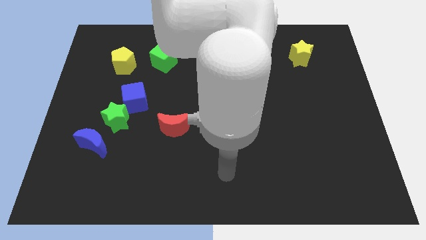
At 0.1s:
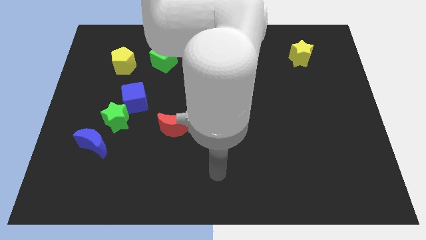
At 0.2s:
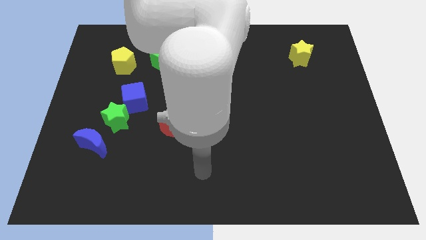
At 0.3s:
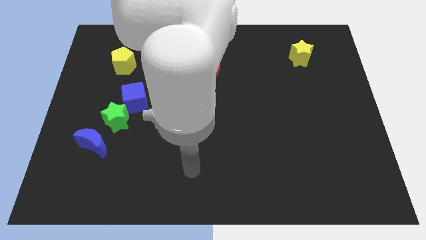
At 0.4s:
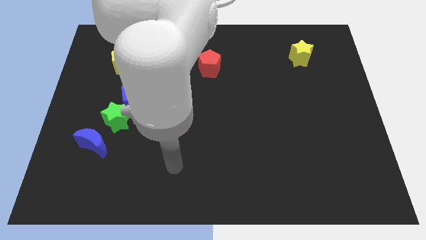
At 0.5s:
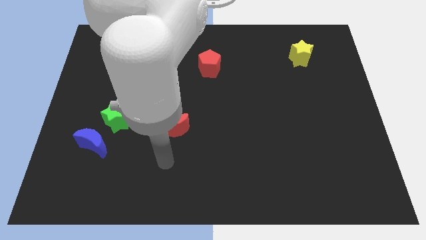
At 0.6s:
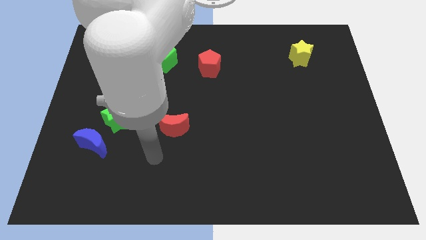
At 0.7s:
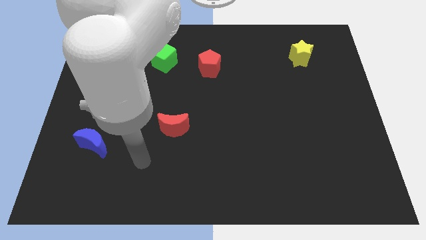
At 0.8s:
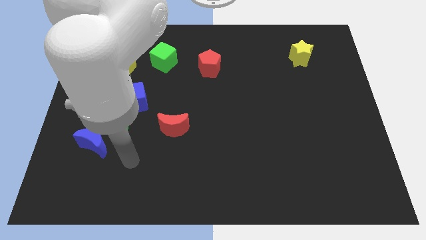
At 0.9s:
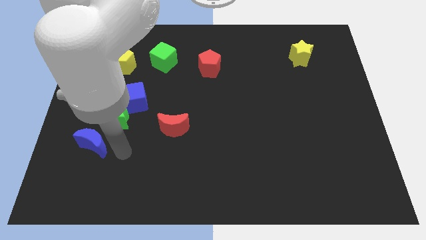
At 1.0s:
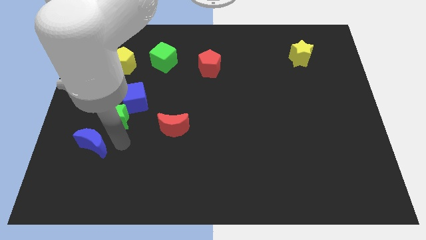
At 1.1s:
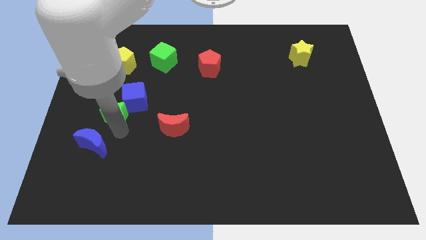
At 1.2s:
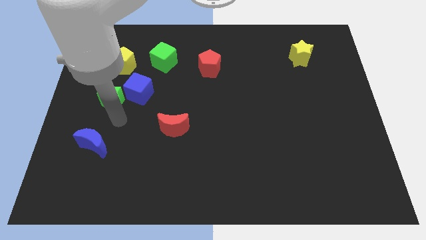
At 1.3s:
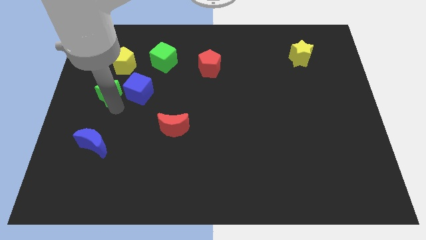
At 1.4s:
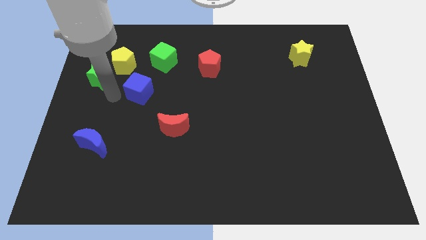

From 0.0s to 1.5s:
pull the blue cube apart from the green star

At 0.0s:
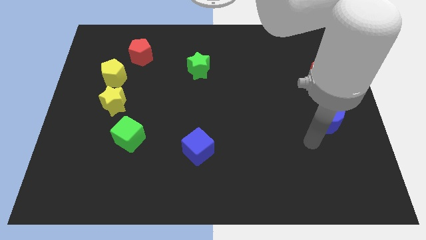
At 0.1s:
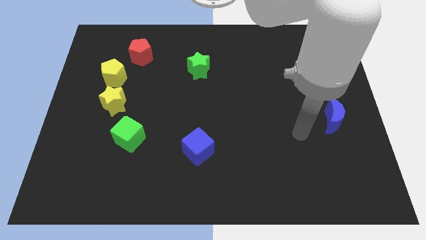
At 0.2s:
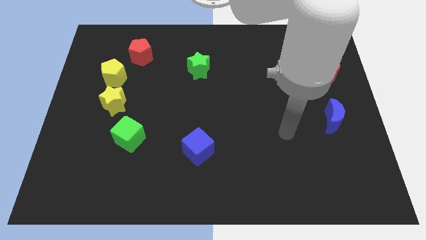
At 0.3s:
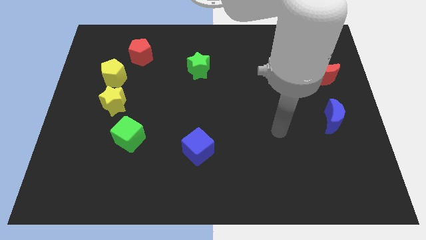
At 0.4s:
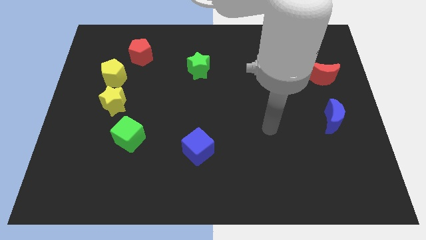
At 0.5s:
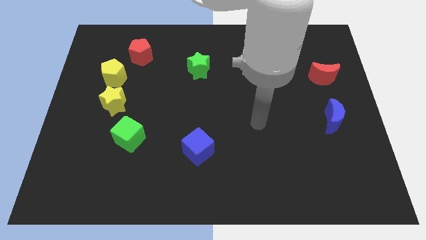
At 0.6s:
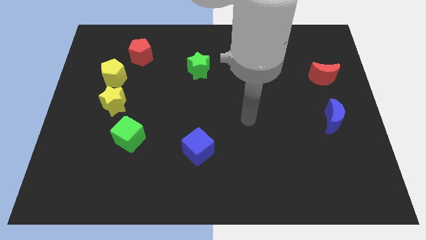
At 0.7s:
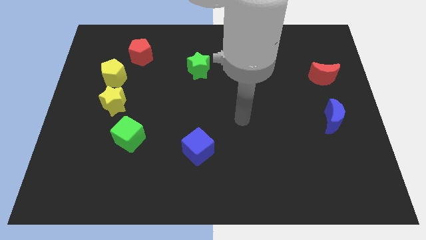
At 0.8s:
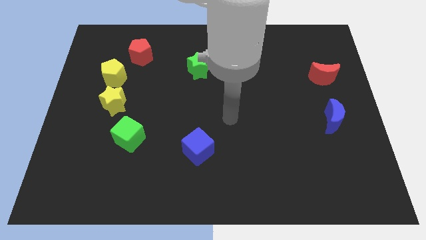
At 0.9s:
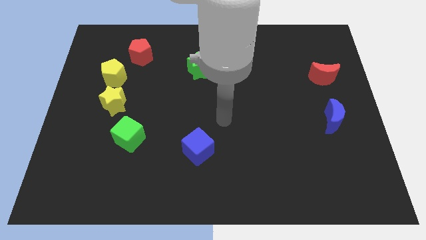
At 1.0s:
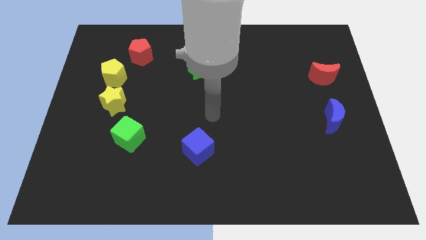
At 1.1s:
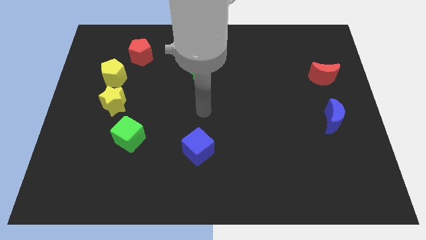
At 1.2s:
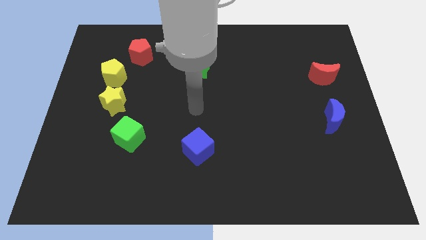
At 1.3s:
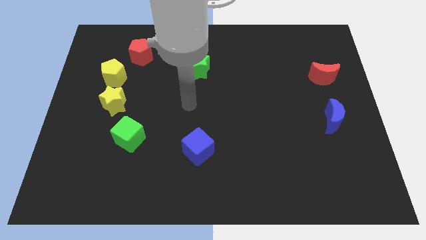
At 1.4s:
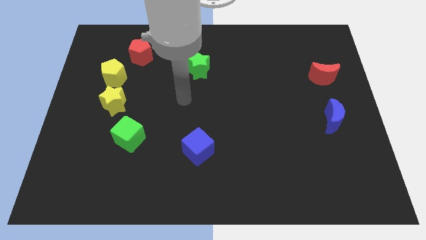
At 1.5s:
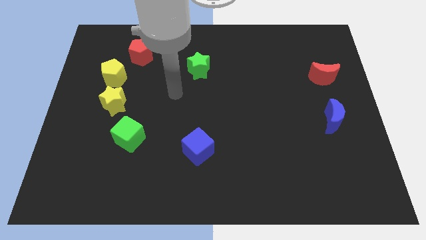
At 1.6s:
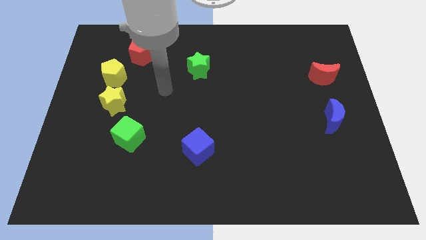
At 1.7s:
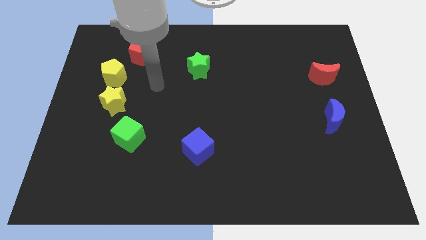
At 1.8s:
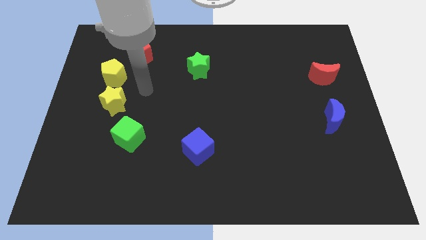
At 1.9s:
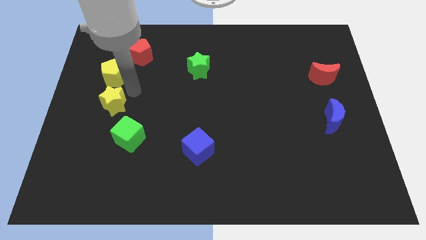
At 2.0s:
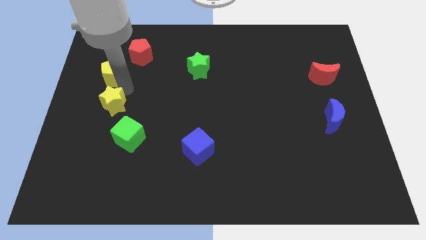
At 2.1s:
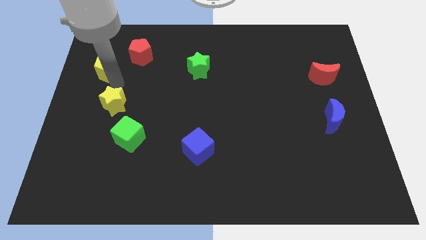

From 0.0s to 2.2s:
separate the yellow star from the yellow pentagon

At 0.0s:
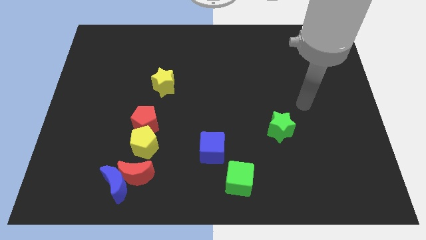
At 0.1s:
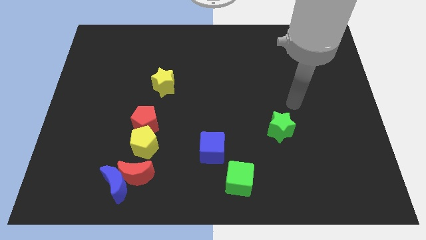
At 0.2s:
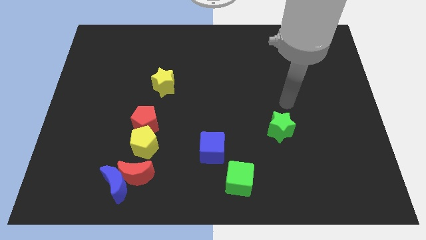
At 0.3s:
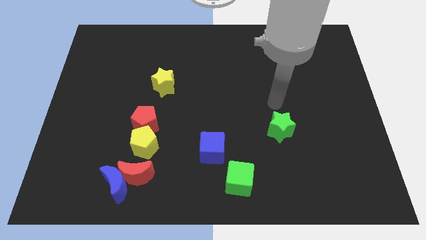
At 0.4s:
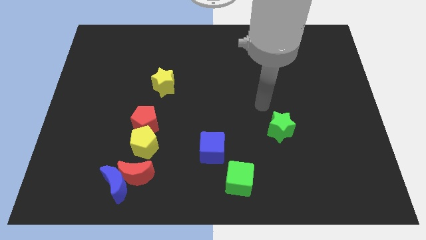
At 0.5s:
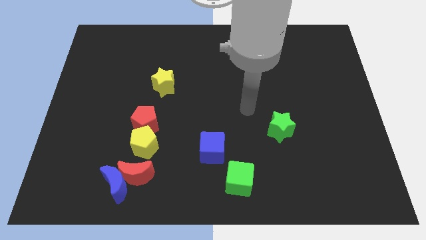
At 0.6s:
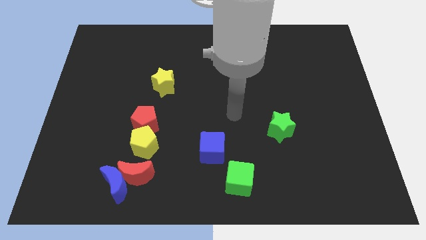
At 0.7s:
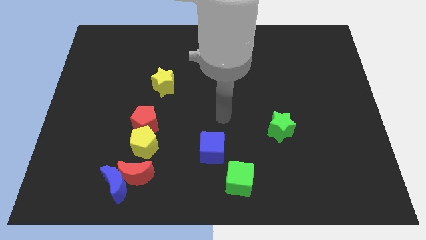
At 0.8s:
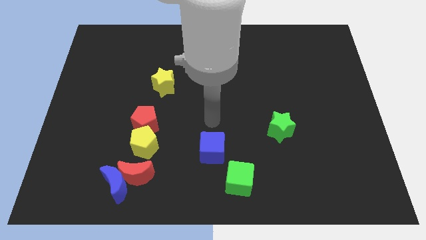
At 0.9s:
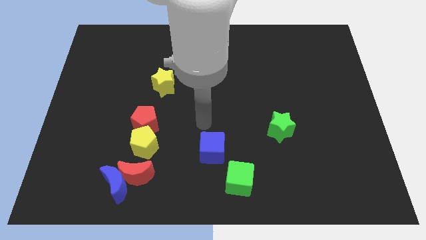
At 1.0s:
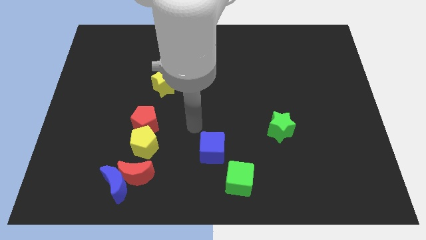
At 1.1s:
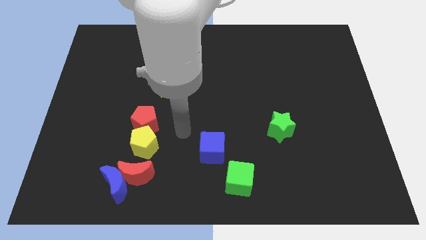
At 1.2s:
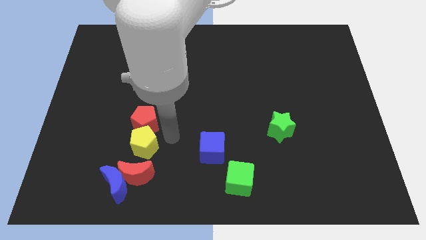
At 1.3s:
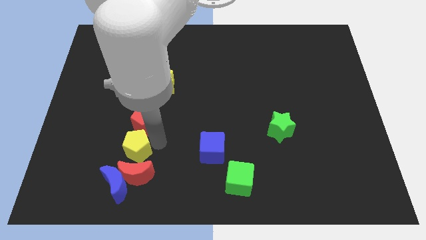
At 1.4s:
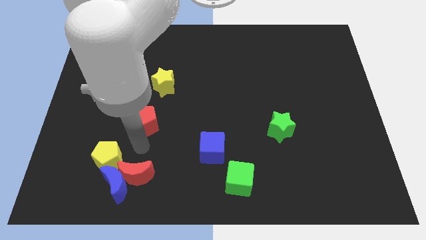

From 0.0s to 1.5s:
separate the red pentagon from the yellow pentagon

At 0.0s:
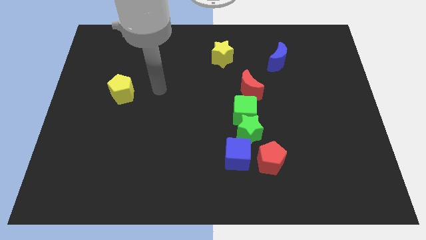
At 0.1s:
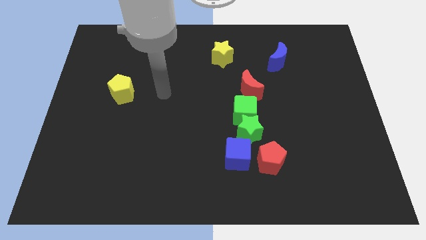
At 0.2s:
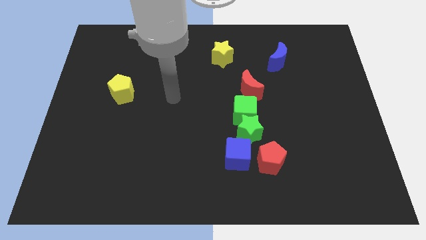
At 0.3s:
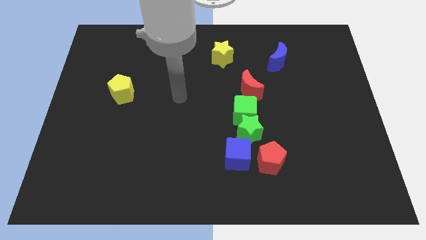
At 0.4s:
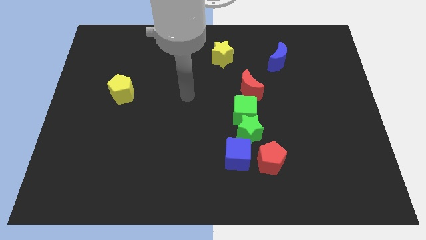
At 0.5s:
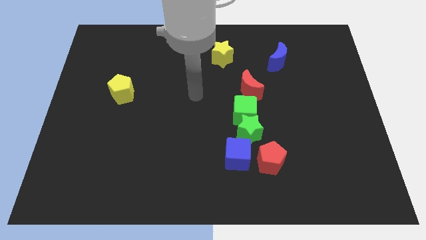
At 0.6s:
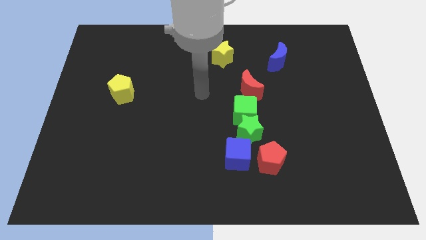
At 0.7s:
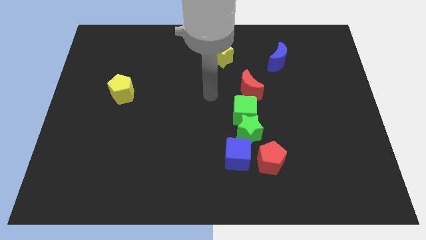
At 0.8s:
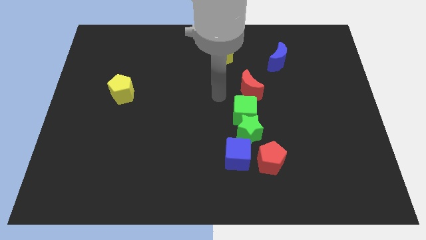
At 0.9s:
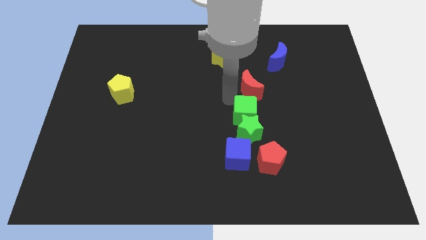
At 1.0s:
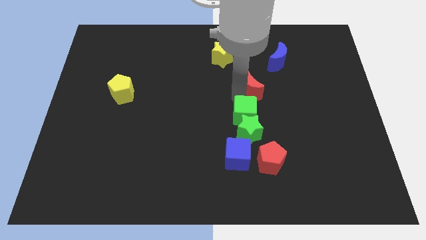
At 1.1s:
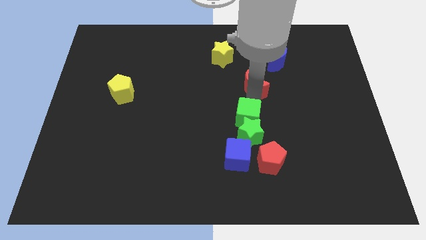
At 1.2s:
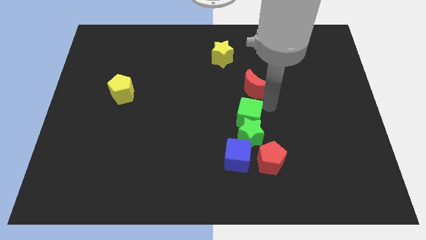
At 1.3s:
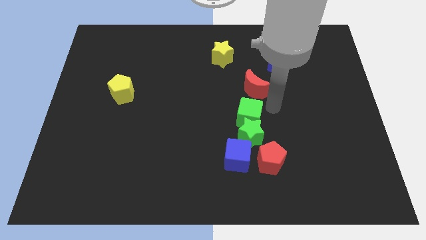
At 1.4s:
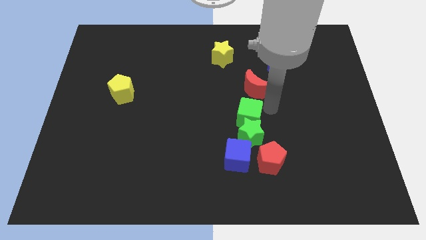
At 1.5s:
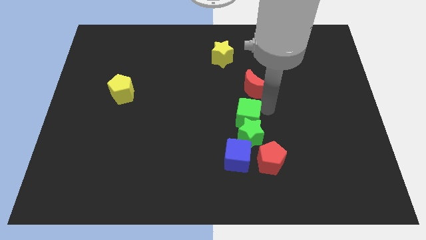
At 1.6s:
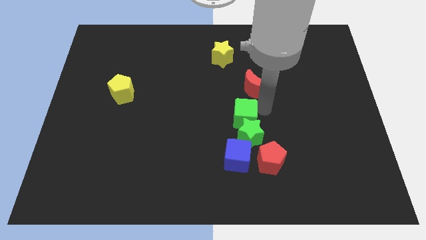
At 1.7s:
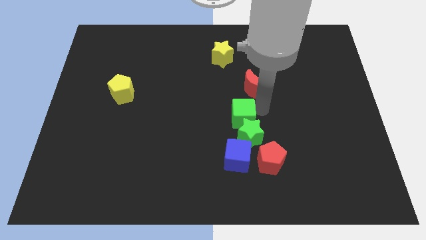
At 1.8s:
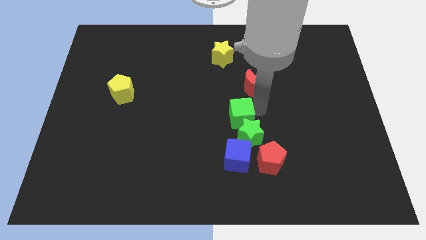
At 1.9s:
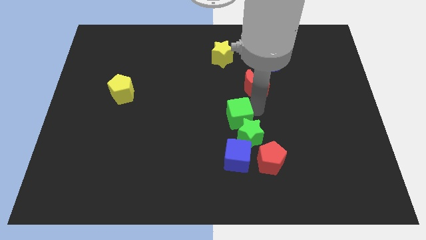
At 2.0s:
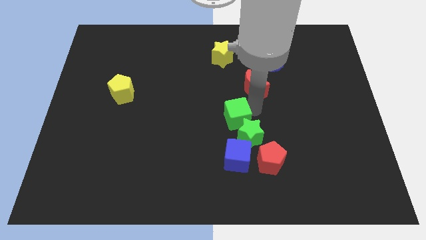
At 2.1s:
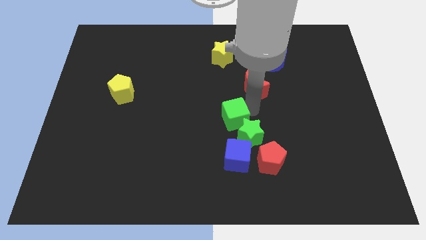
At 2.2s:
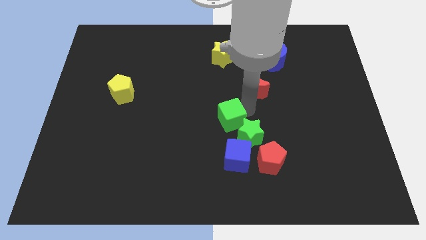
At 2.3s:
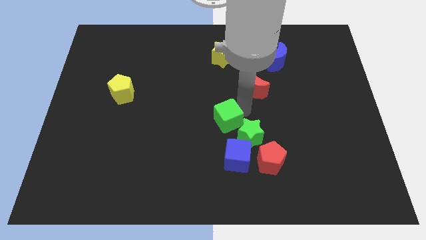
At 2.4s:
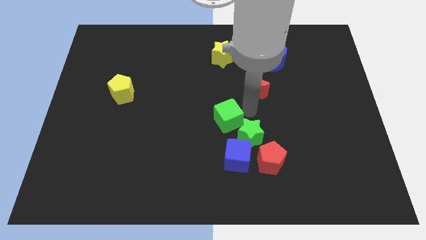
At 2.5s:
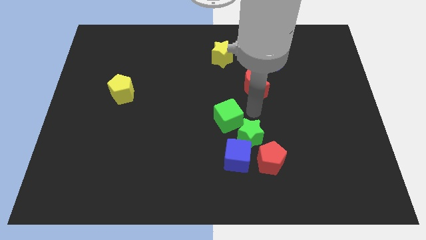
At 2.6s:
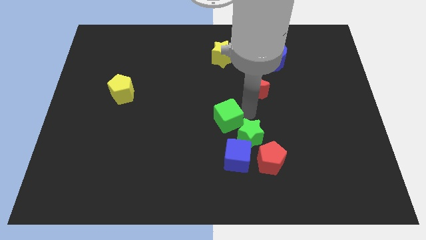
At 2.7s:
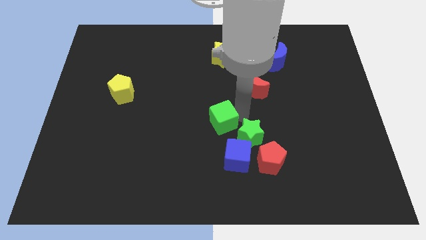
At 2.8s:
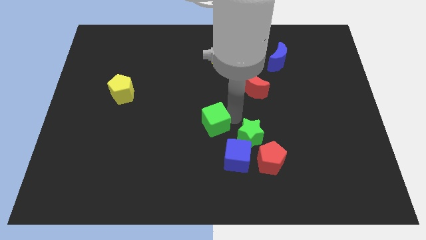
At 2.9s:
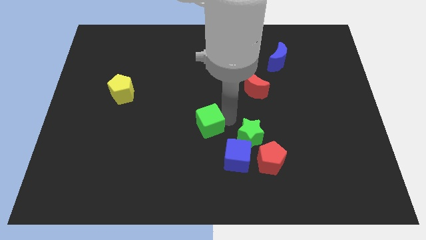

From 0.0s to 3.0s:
move the green cube away from the green star and red moon

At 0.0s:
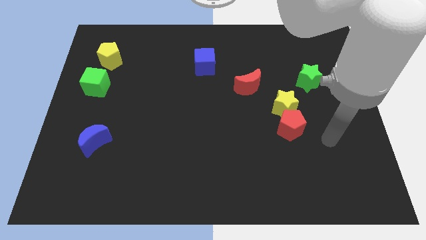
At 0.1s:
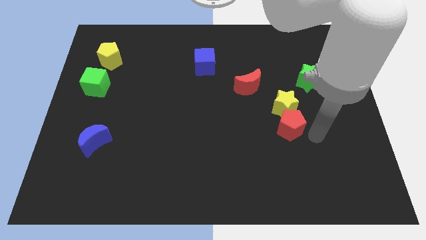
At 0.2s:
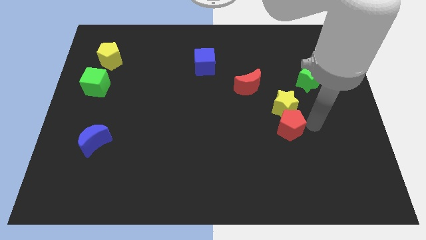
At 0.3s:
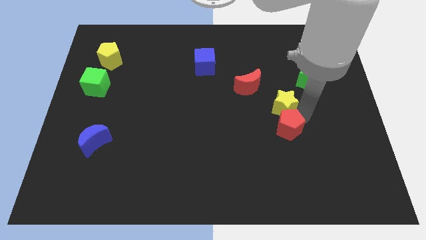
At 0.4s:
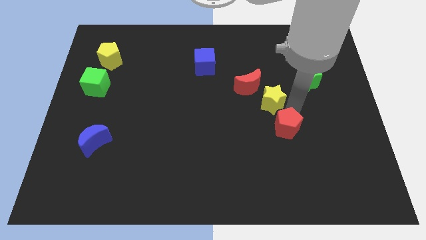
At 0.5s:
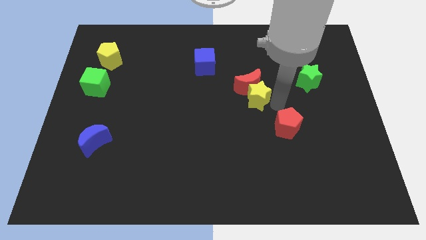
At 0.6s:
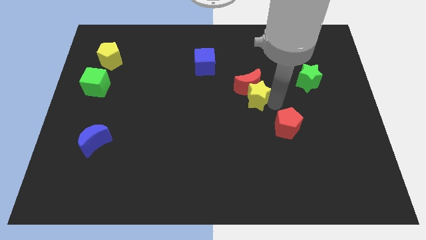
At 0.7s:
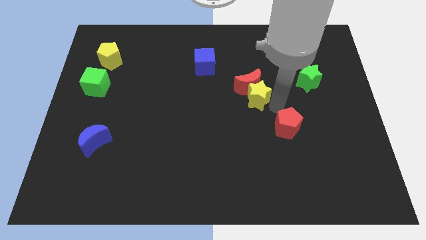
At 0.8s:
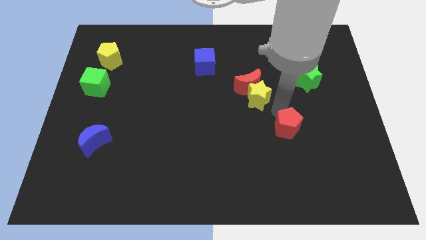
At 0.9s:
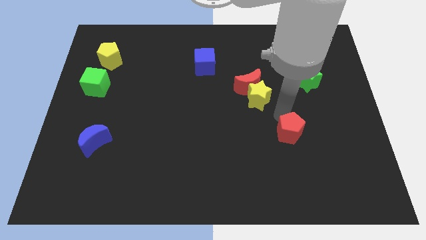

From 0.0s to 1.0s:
separate the red pentagon from the yellow star

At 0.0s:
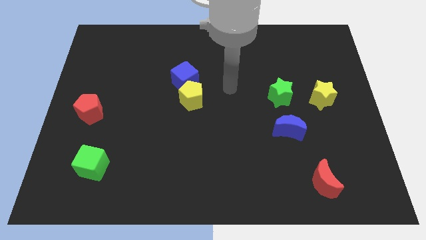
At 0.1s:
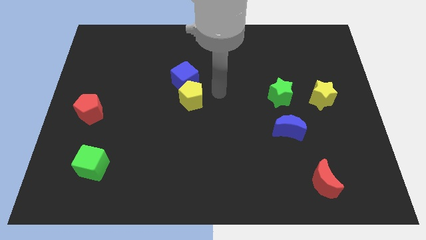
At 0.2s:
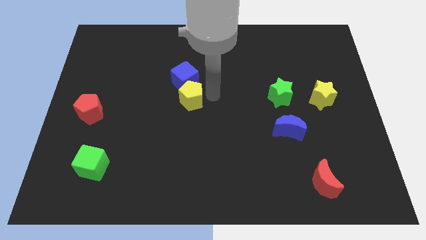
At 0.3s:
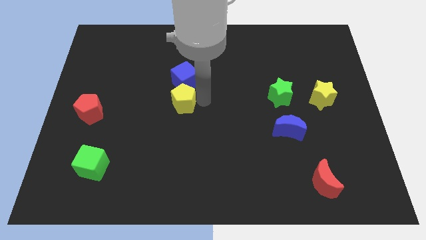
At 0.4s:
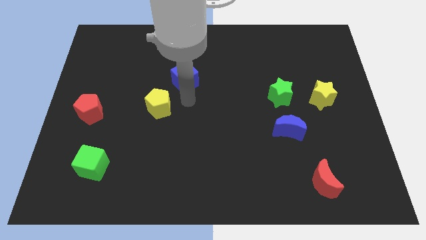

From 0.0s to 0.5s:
pull the blue cube apart from the yellow pentagon
